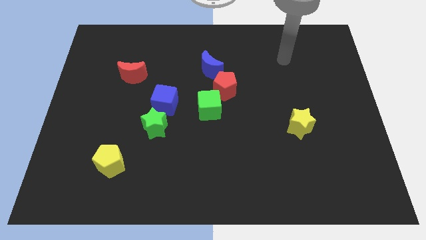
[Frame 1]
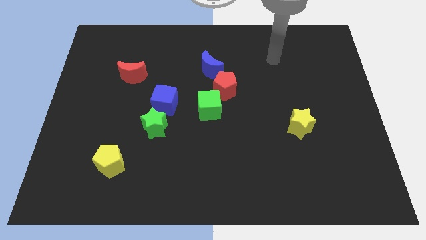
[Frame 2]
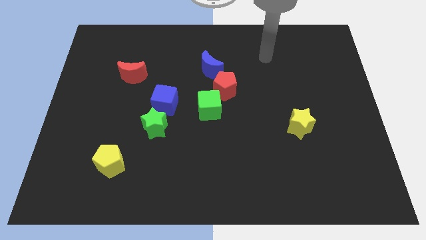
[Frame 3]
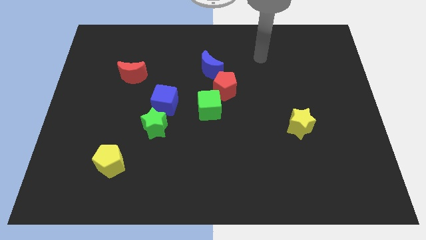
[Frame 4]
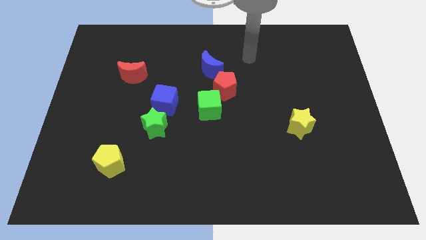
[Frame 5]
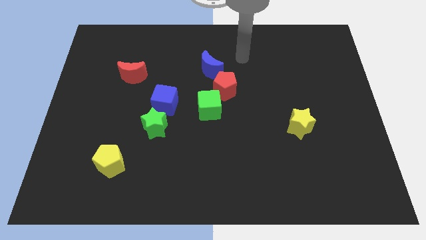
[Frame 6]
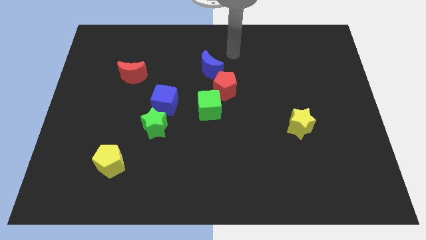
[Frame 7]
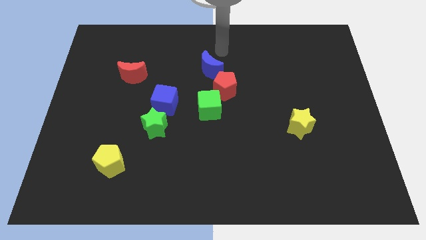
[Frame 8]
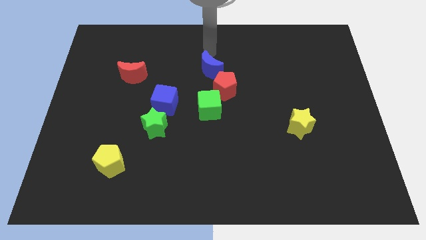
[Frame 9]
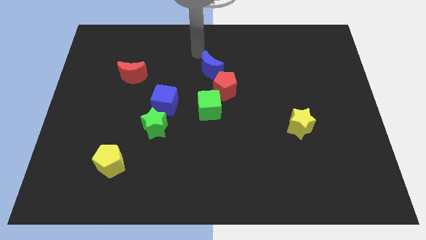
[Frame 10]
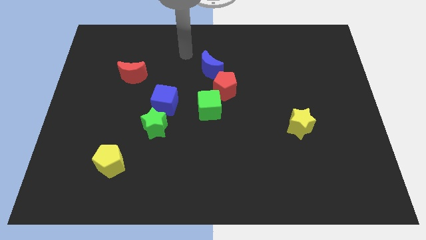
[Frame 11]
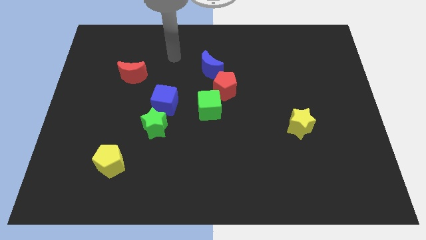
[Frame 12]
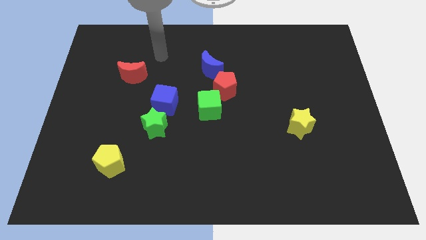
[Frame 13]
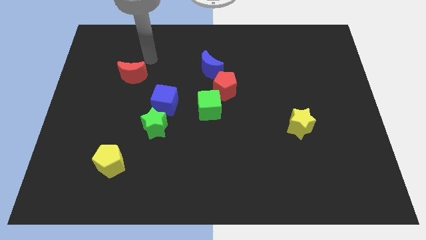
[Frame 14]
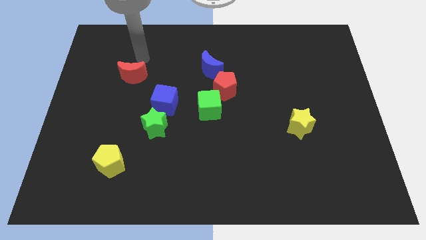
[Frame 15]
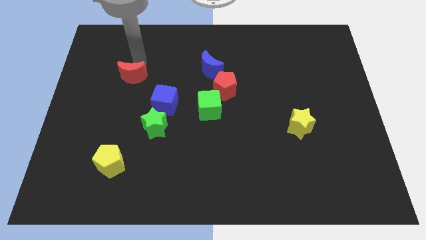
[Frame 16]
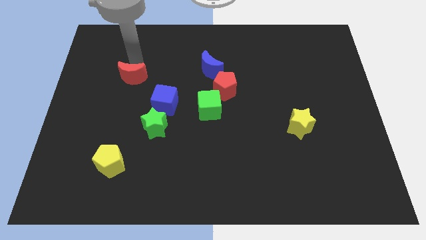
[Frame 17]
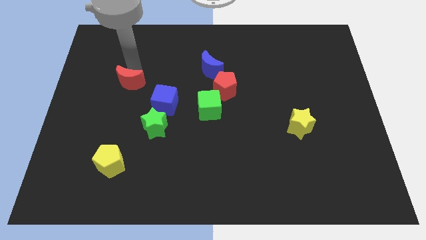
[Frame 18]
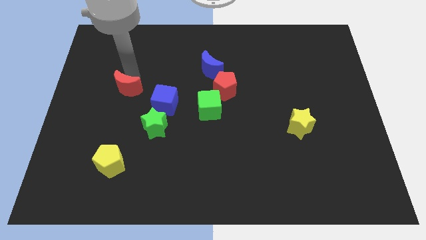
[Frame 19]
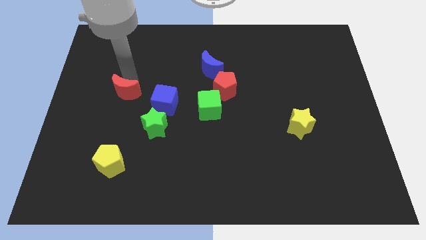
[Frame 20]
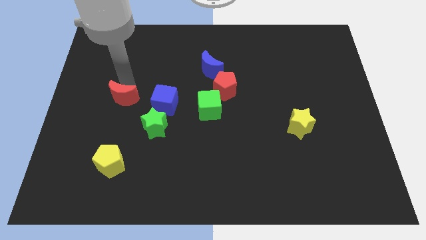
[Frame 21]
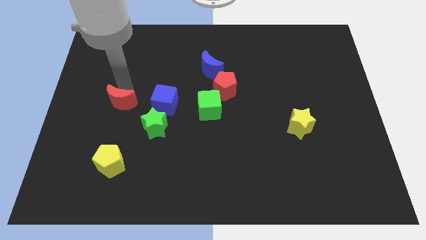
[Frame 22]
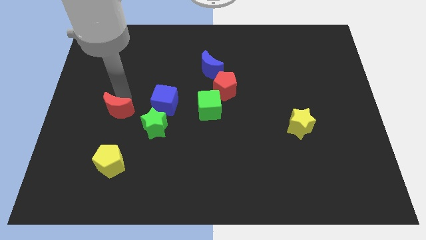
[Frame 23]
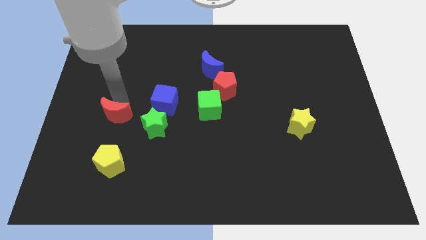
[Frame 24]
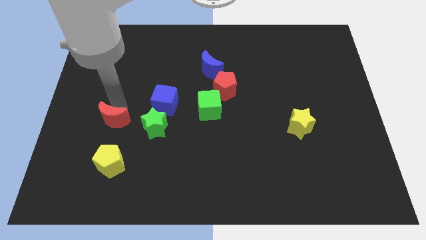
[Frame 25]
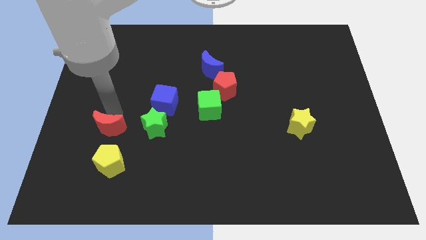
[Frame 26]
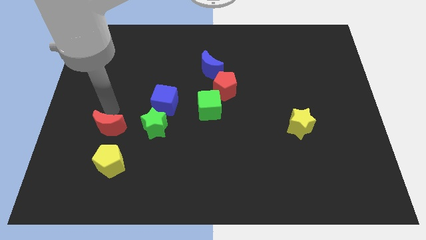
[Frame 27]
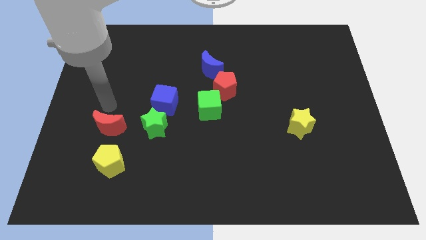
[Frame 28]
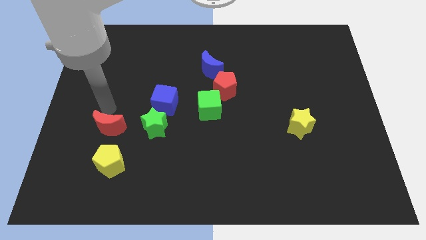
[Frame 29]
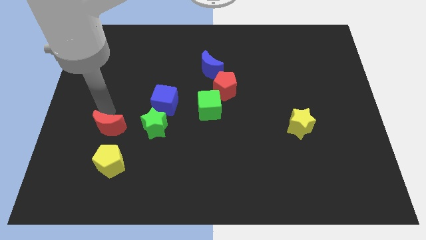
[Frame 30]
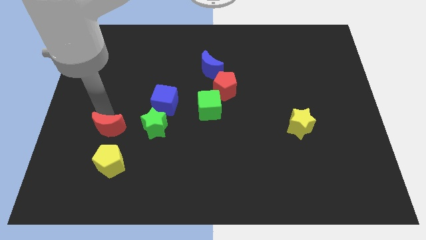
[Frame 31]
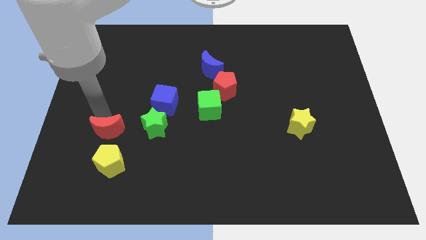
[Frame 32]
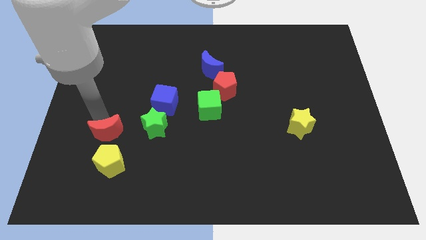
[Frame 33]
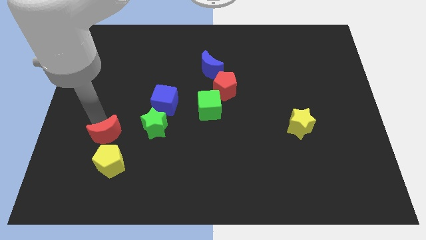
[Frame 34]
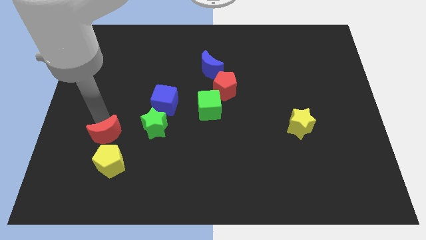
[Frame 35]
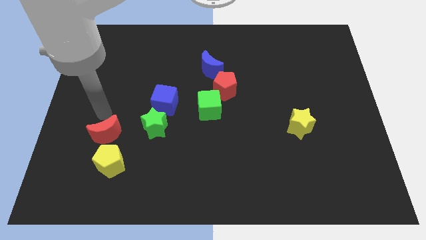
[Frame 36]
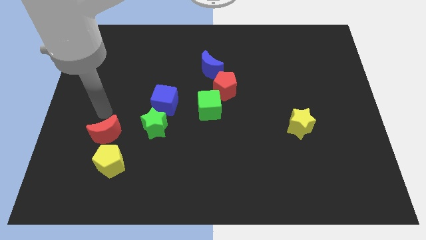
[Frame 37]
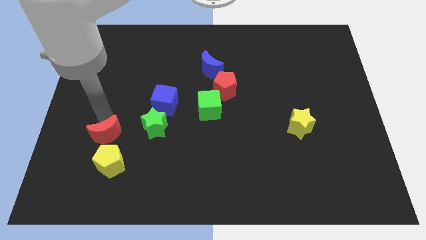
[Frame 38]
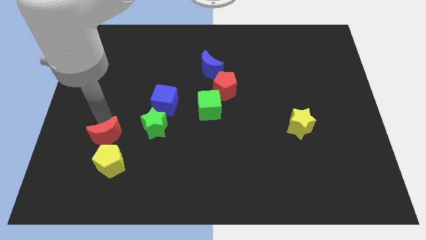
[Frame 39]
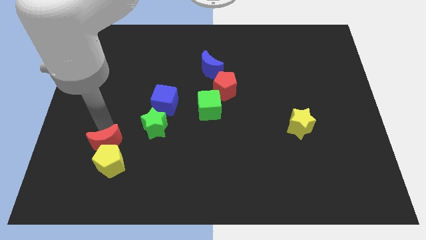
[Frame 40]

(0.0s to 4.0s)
move the red moon to the yellow pentagon

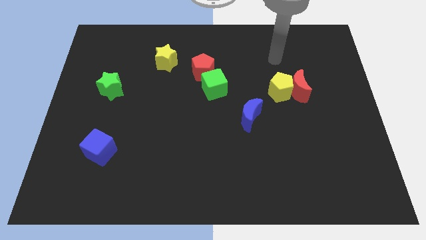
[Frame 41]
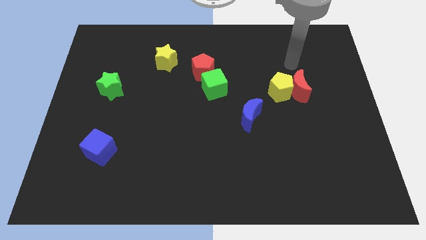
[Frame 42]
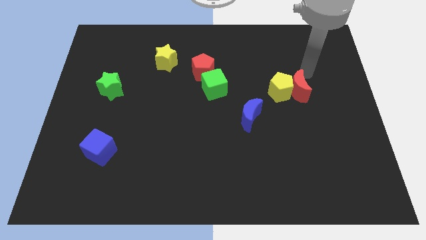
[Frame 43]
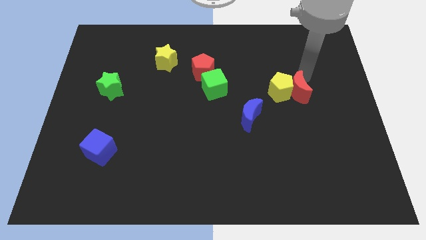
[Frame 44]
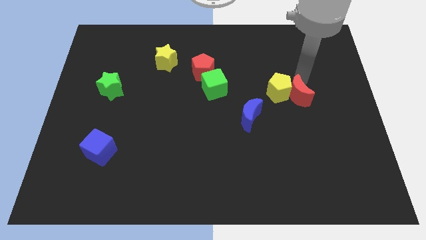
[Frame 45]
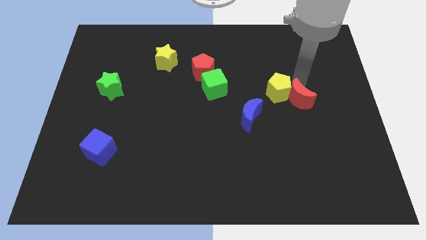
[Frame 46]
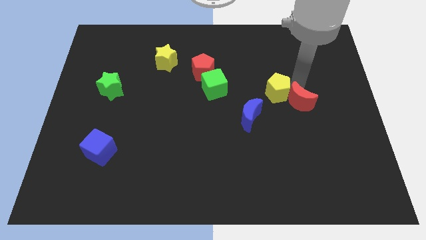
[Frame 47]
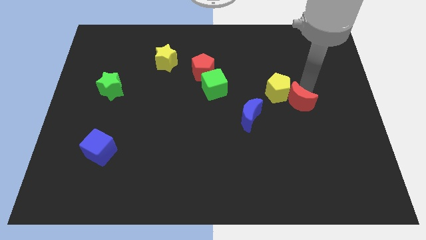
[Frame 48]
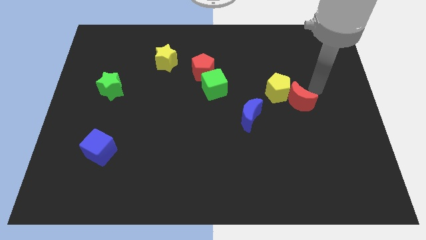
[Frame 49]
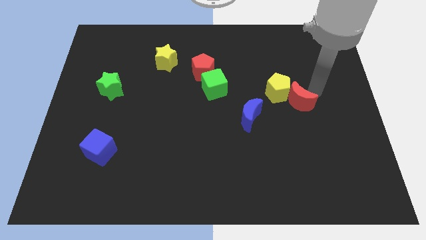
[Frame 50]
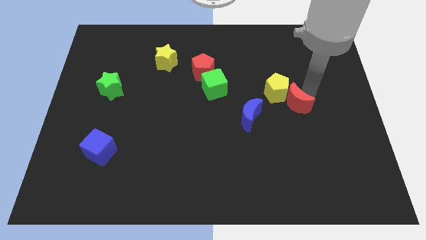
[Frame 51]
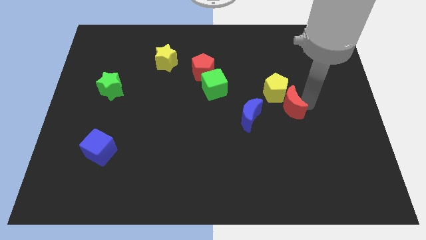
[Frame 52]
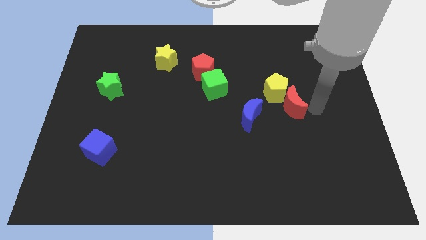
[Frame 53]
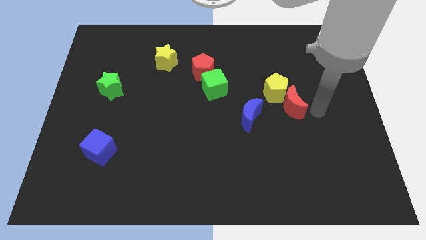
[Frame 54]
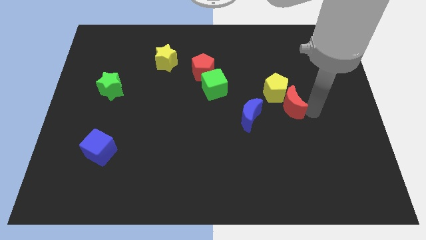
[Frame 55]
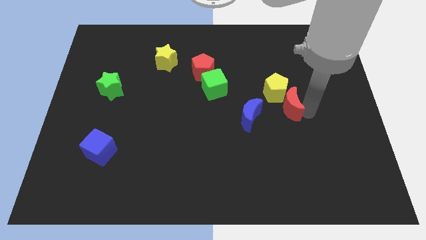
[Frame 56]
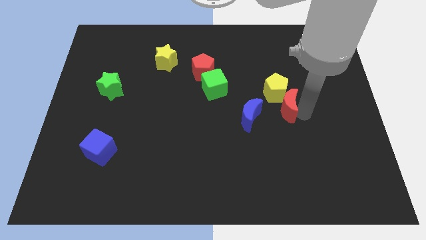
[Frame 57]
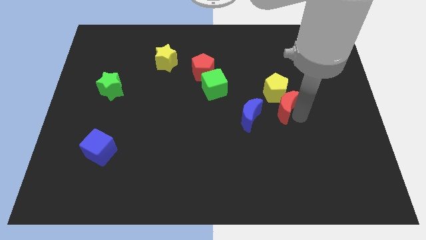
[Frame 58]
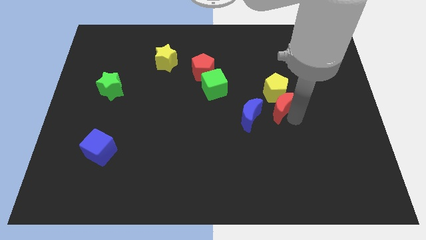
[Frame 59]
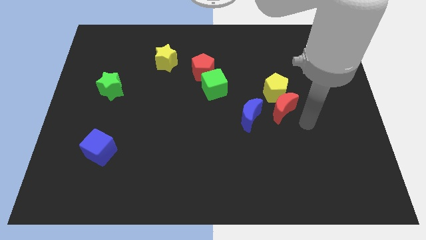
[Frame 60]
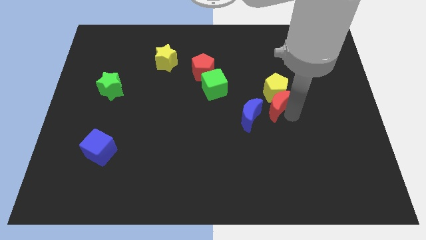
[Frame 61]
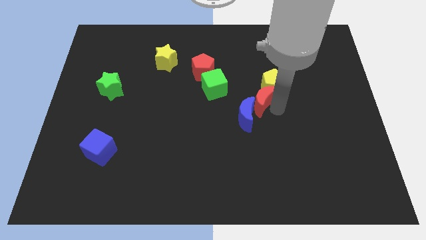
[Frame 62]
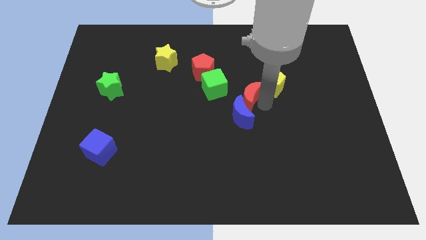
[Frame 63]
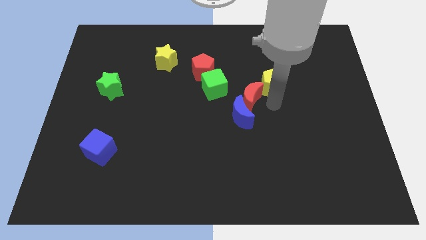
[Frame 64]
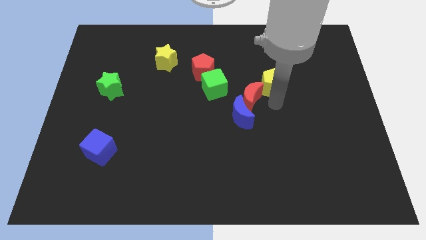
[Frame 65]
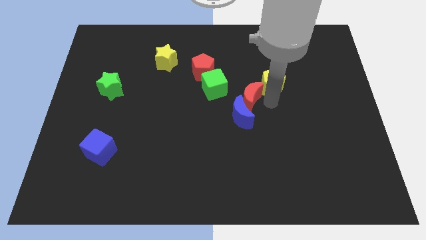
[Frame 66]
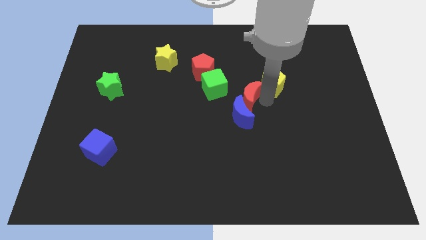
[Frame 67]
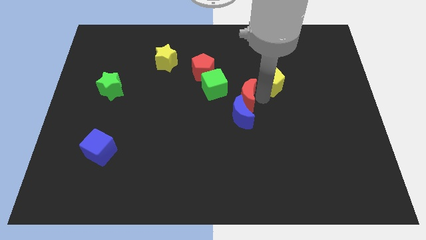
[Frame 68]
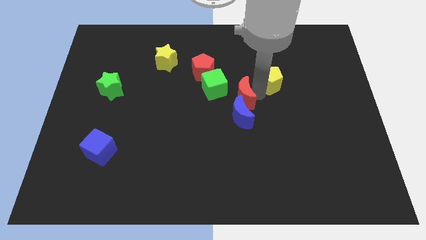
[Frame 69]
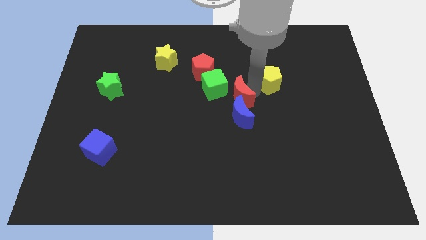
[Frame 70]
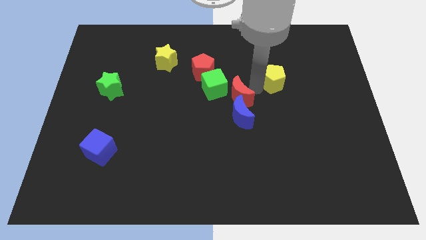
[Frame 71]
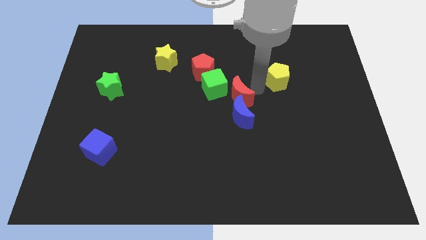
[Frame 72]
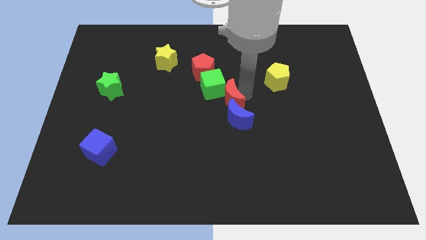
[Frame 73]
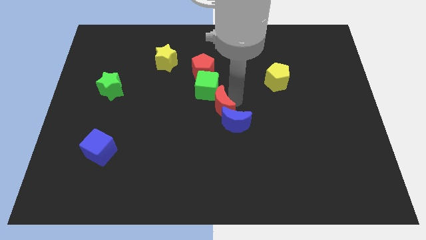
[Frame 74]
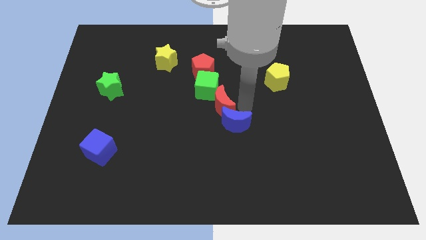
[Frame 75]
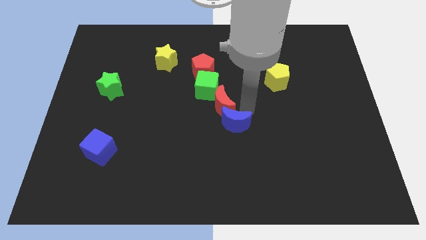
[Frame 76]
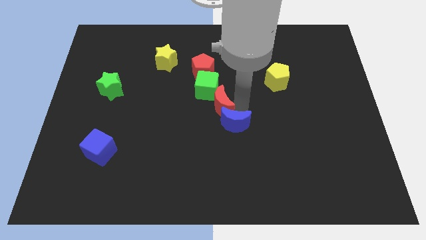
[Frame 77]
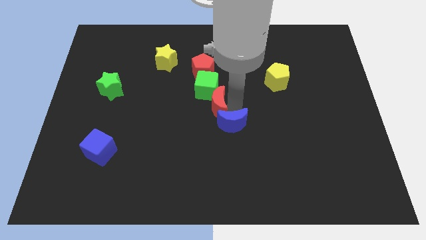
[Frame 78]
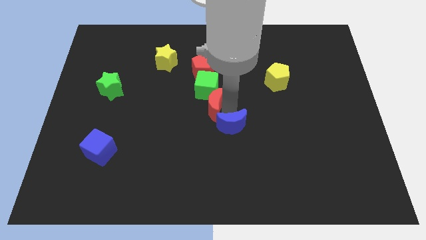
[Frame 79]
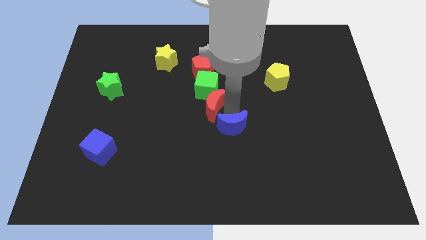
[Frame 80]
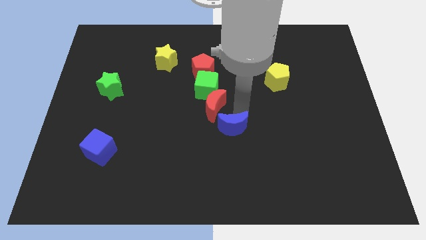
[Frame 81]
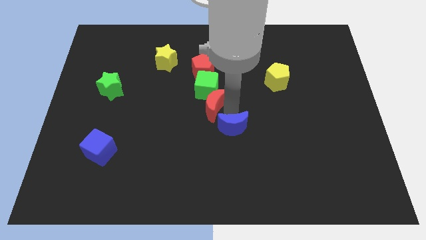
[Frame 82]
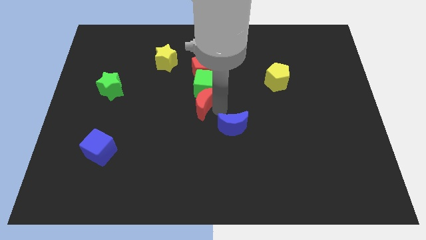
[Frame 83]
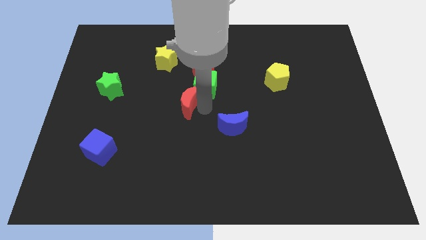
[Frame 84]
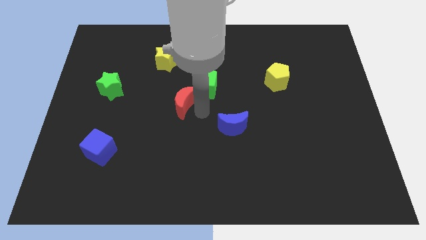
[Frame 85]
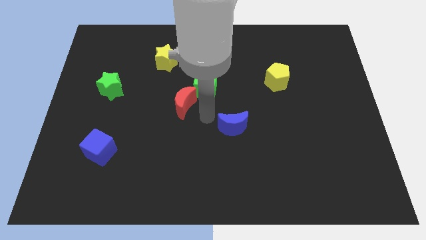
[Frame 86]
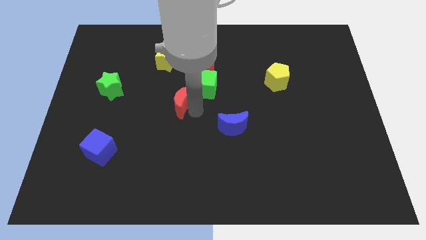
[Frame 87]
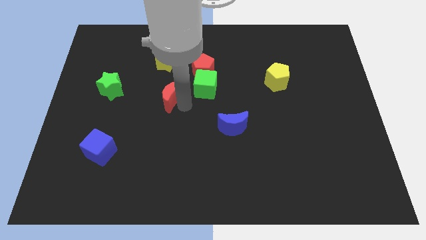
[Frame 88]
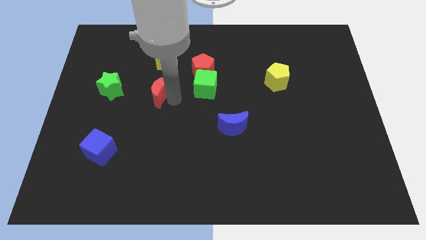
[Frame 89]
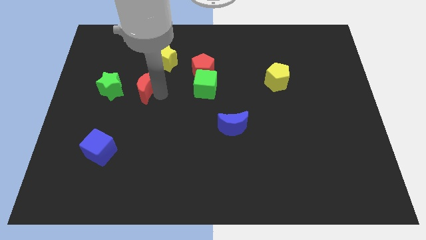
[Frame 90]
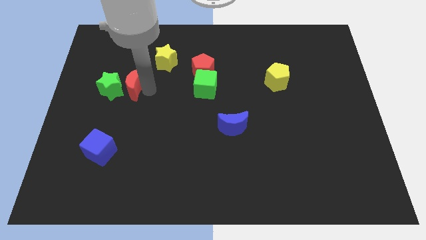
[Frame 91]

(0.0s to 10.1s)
slide the red moon towards the green star
